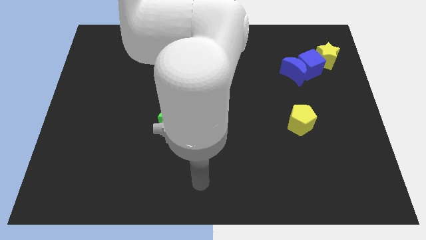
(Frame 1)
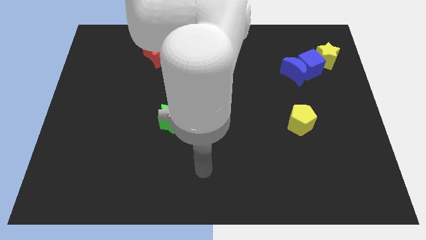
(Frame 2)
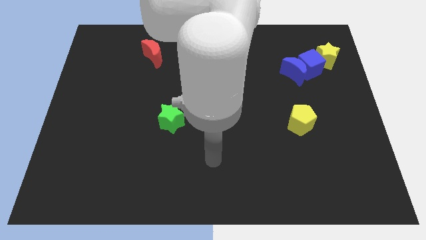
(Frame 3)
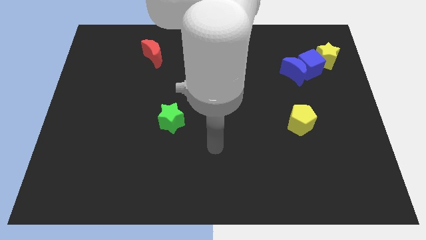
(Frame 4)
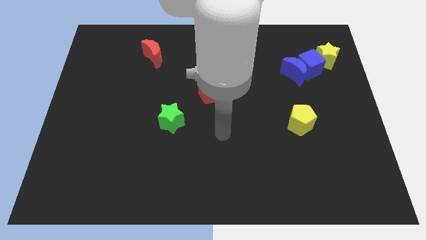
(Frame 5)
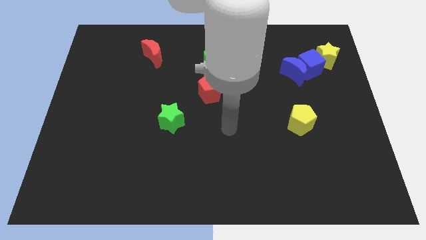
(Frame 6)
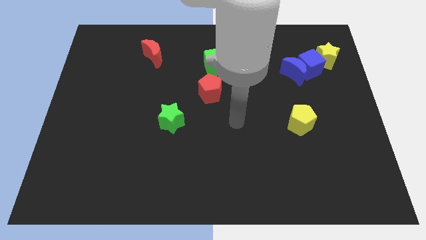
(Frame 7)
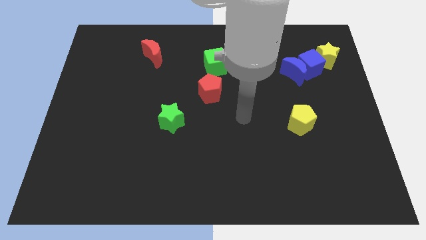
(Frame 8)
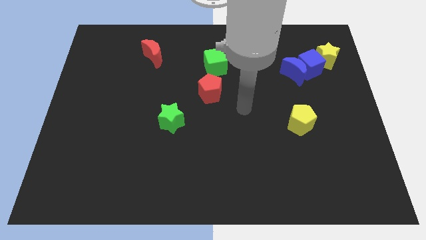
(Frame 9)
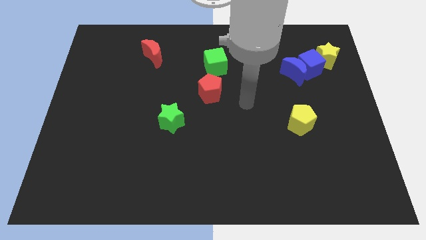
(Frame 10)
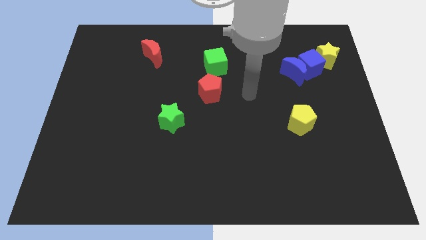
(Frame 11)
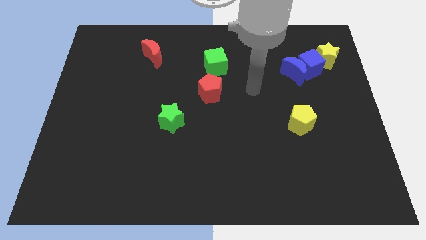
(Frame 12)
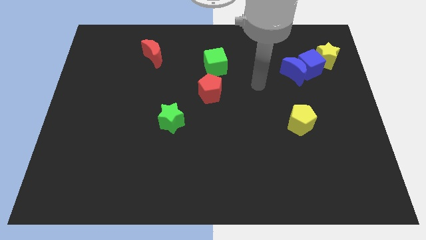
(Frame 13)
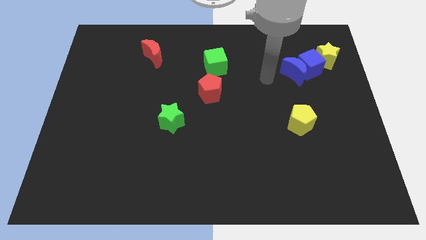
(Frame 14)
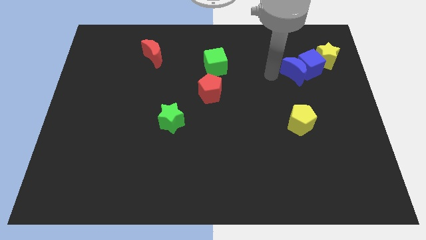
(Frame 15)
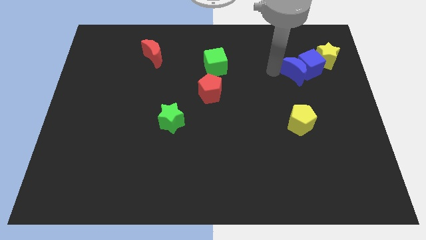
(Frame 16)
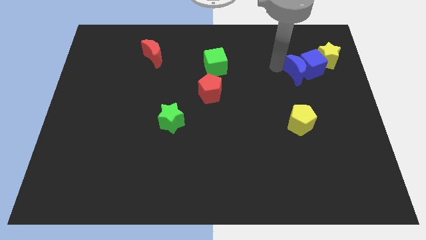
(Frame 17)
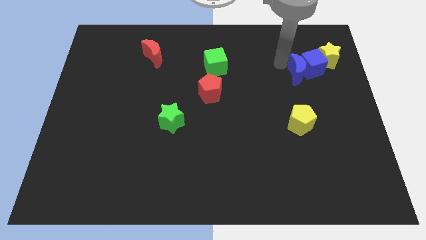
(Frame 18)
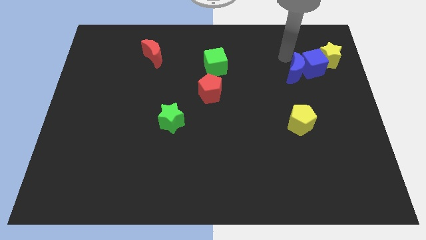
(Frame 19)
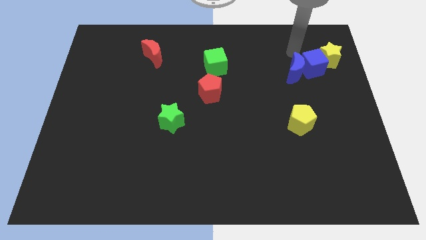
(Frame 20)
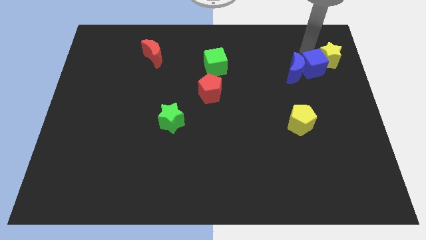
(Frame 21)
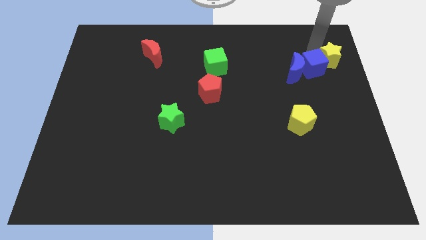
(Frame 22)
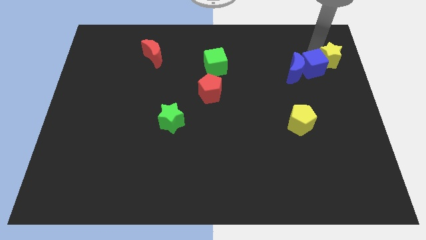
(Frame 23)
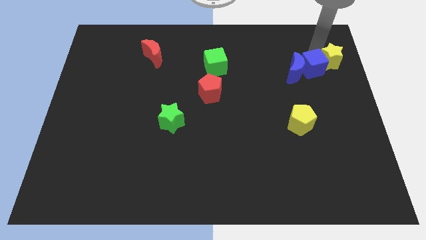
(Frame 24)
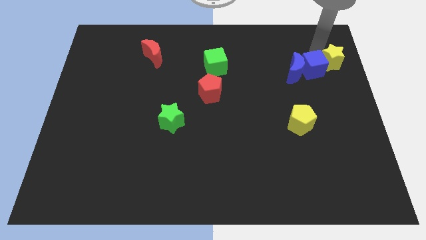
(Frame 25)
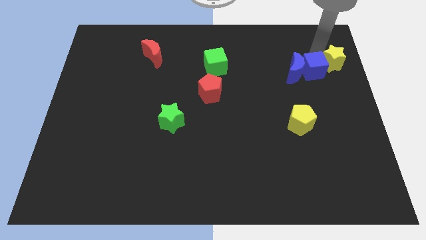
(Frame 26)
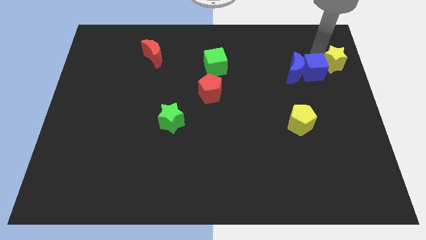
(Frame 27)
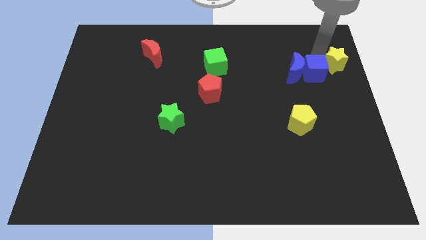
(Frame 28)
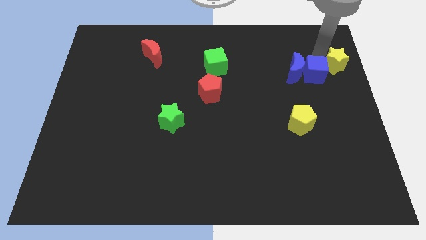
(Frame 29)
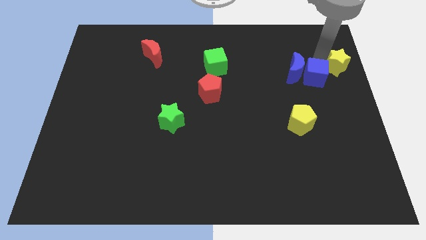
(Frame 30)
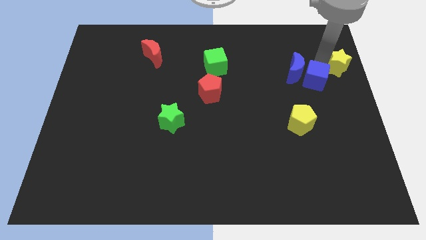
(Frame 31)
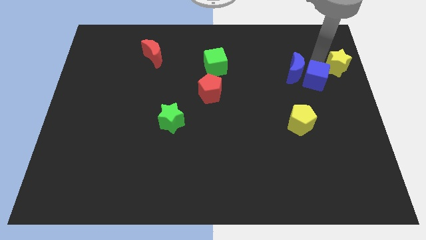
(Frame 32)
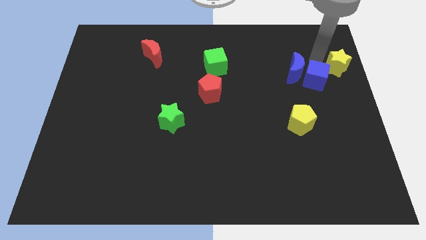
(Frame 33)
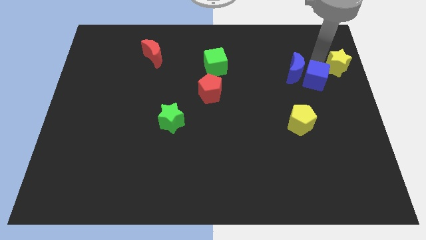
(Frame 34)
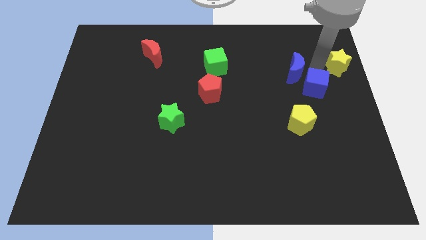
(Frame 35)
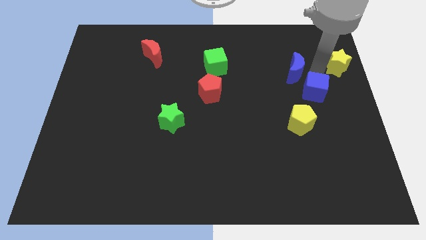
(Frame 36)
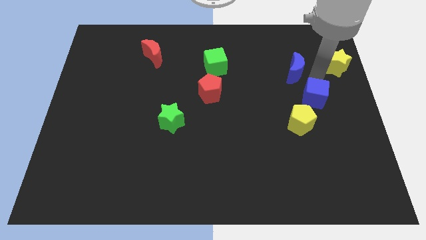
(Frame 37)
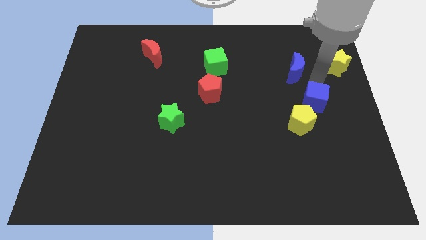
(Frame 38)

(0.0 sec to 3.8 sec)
pull the blue cube apart from the blue moon and yellow star

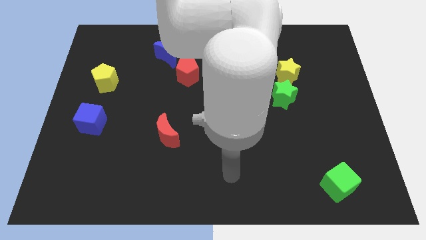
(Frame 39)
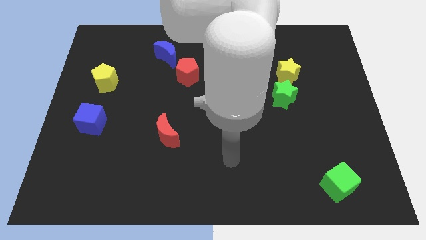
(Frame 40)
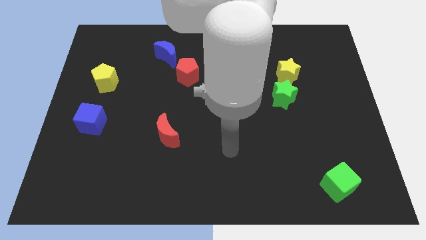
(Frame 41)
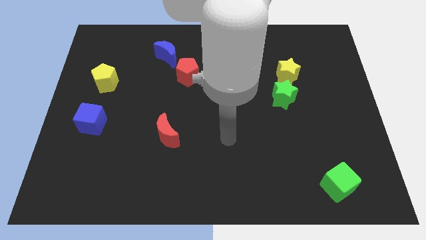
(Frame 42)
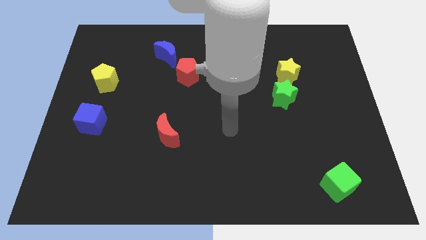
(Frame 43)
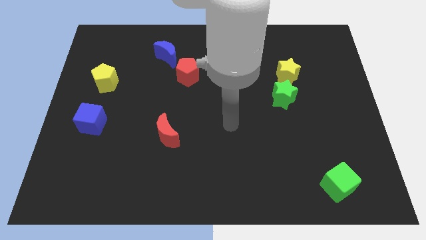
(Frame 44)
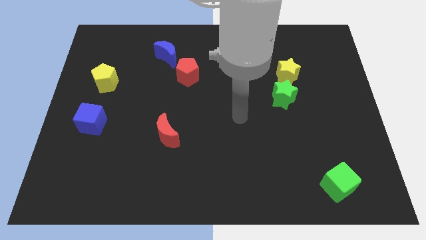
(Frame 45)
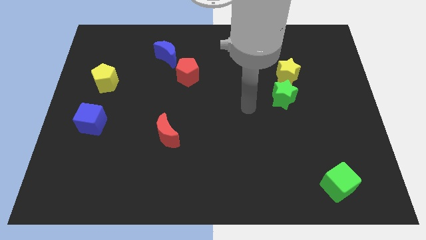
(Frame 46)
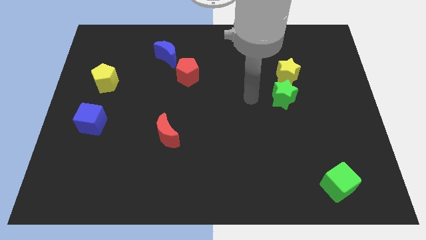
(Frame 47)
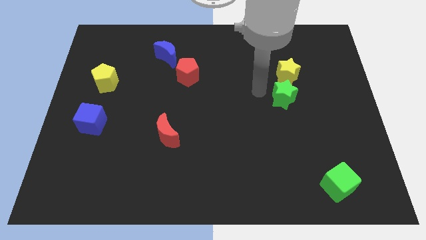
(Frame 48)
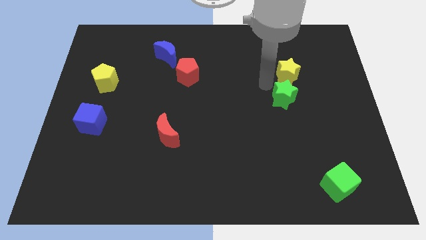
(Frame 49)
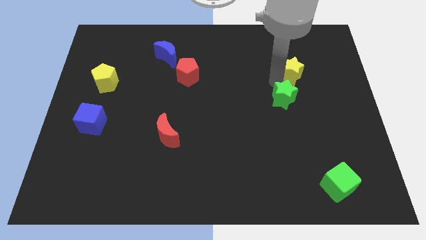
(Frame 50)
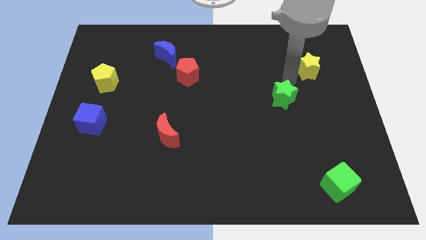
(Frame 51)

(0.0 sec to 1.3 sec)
move the green star away from the yellow star

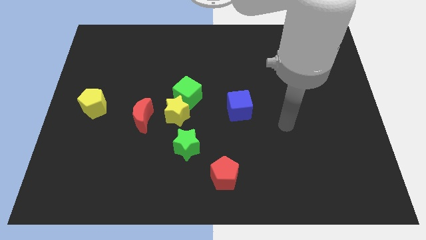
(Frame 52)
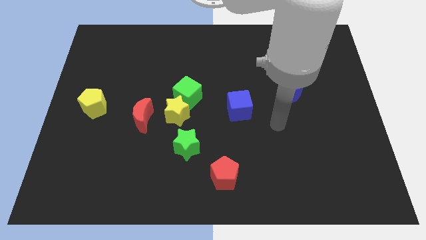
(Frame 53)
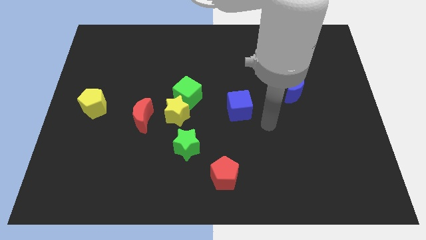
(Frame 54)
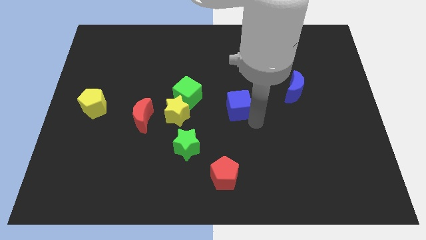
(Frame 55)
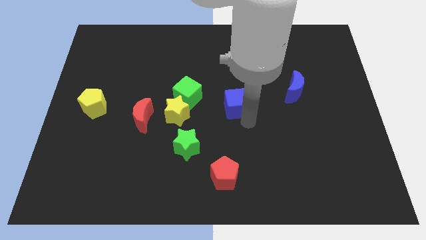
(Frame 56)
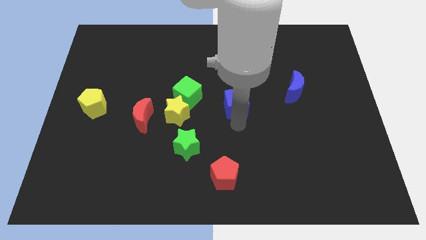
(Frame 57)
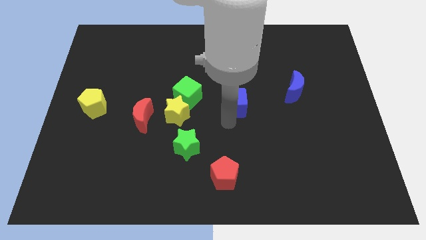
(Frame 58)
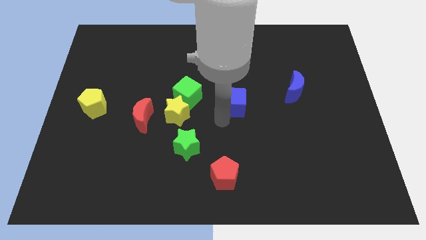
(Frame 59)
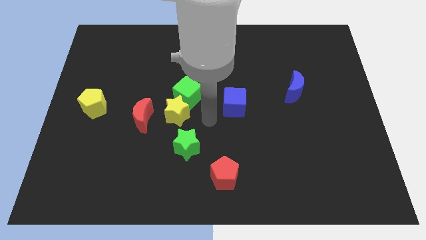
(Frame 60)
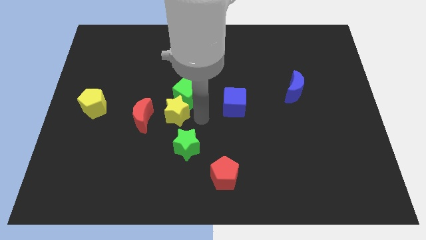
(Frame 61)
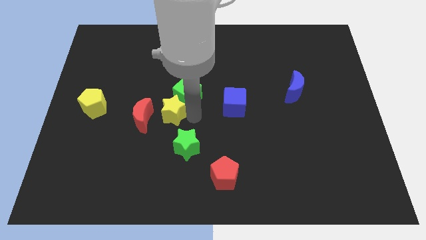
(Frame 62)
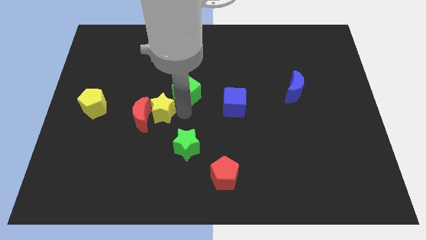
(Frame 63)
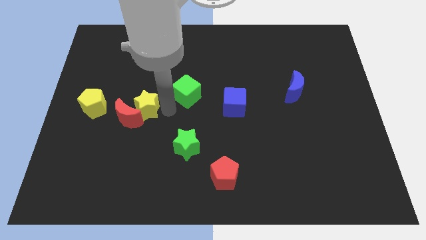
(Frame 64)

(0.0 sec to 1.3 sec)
separate the green cube from the yellow star

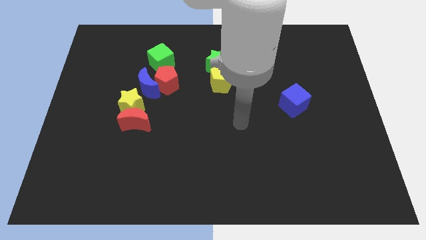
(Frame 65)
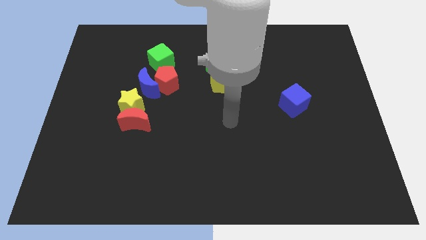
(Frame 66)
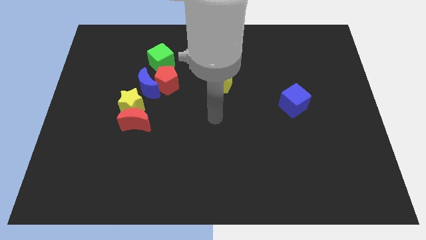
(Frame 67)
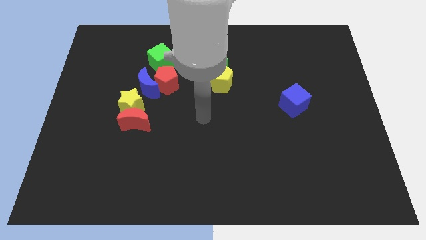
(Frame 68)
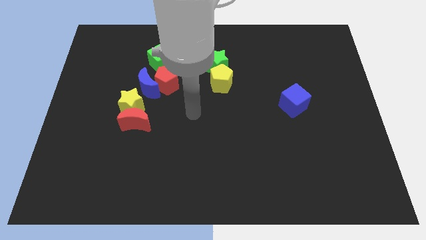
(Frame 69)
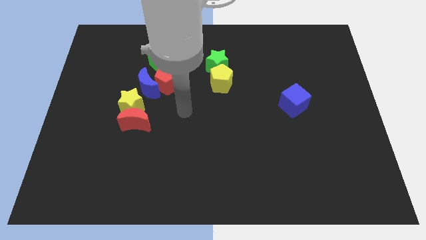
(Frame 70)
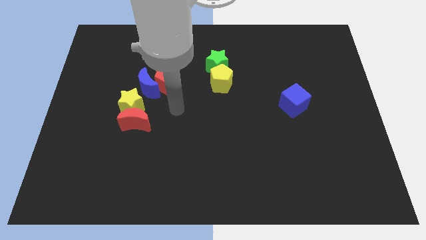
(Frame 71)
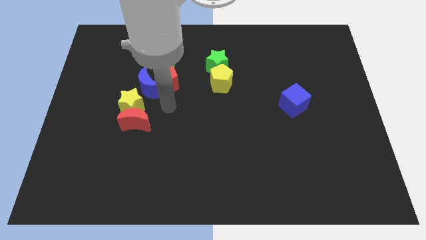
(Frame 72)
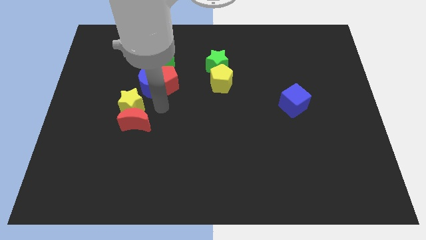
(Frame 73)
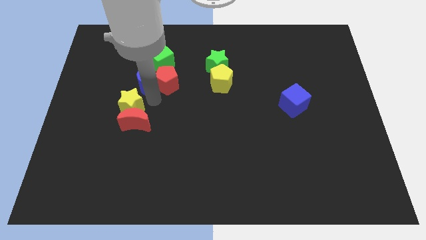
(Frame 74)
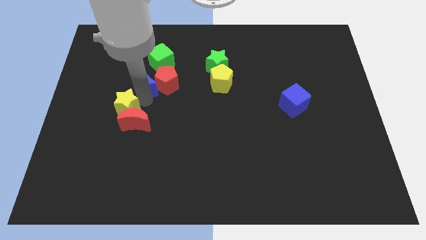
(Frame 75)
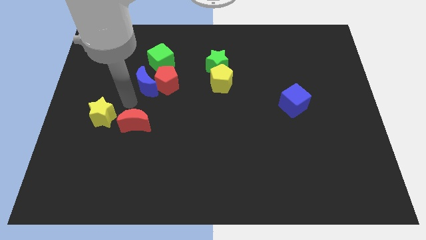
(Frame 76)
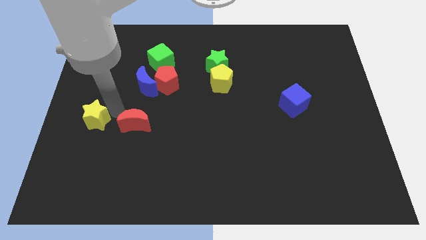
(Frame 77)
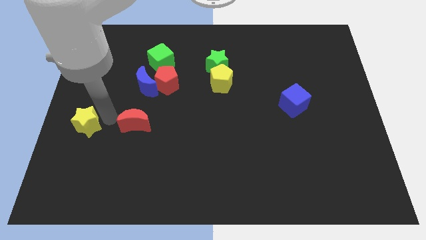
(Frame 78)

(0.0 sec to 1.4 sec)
separate the red moon from the yellow star

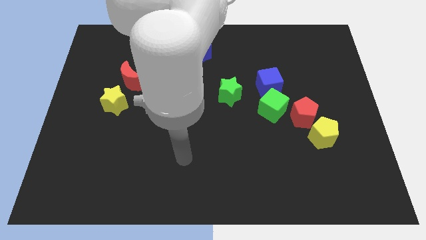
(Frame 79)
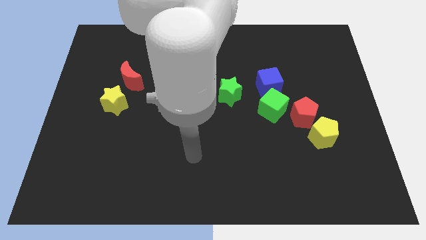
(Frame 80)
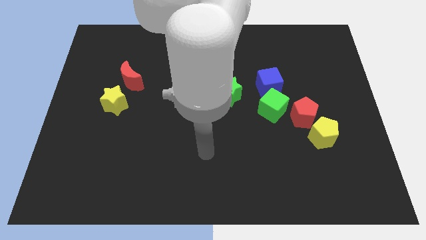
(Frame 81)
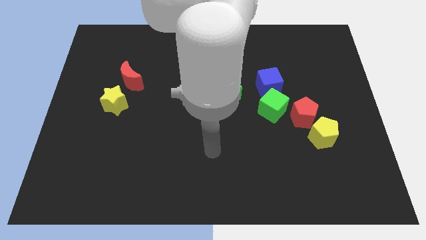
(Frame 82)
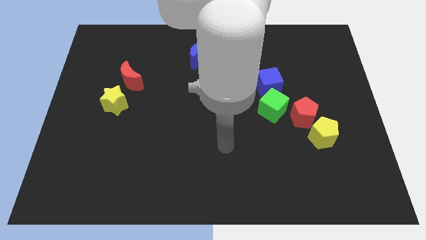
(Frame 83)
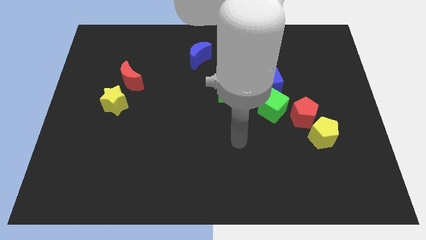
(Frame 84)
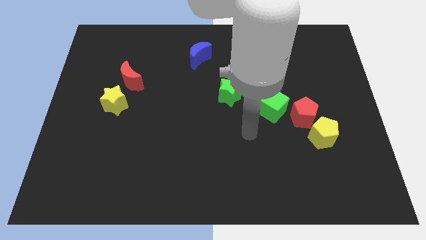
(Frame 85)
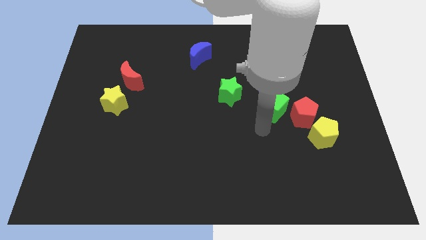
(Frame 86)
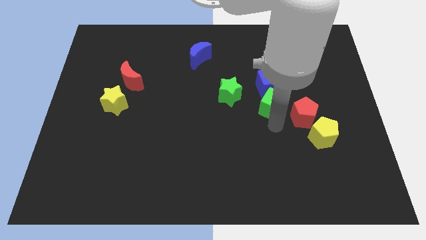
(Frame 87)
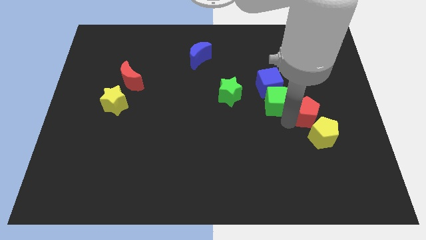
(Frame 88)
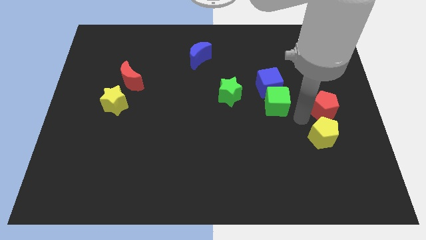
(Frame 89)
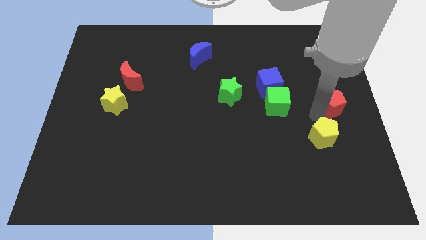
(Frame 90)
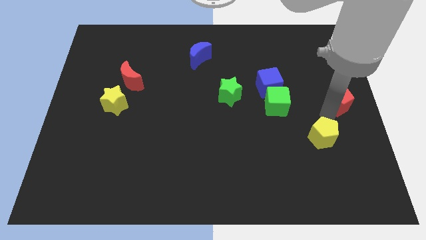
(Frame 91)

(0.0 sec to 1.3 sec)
move the yellow pentagon away from the red pentagon

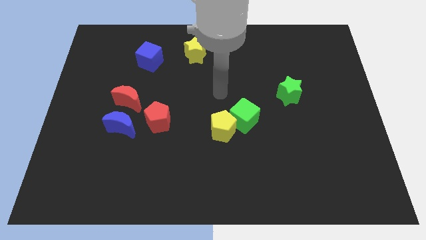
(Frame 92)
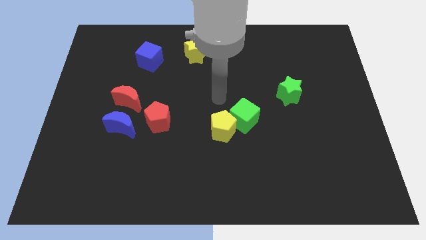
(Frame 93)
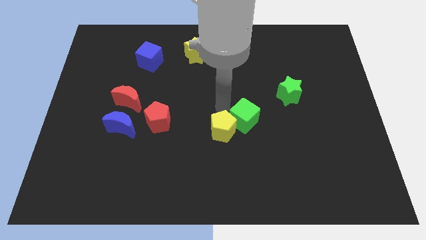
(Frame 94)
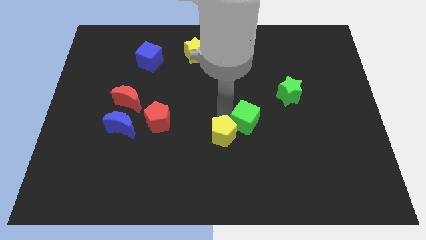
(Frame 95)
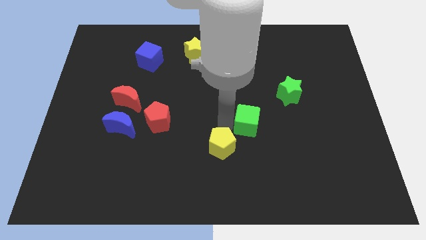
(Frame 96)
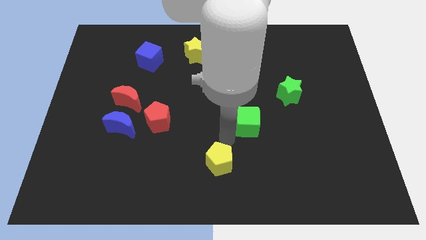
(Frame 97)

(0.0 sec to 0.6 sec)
move the green cube away from the yellow pentagon
